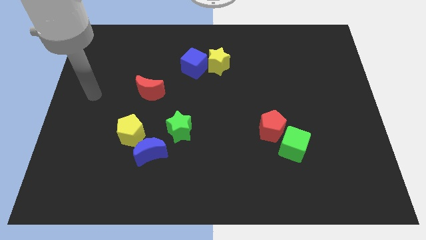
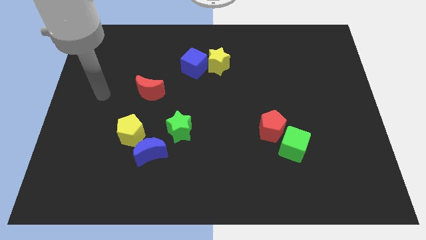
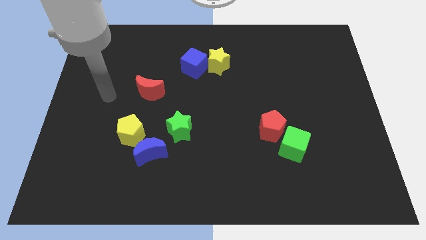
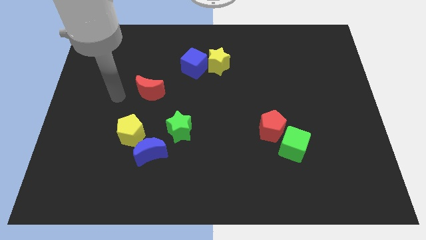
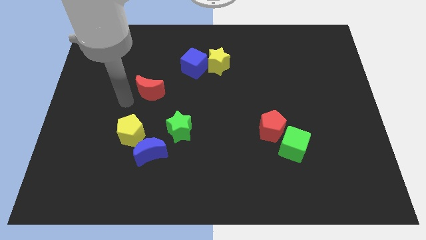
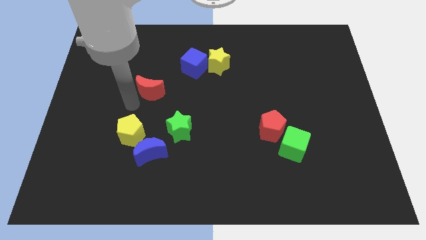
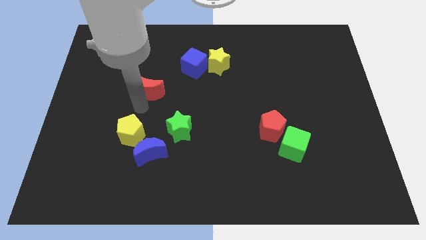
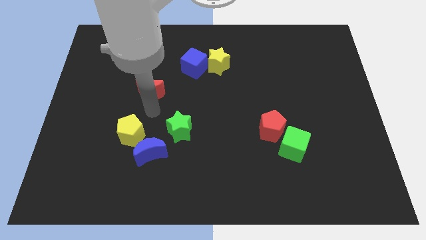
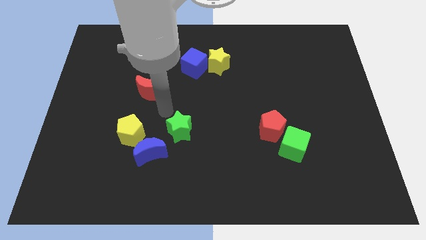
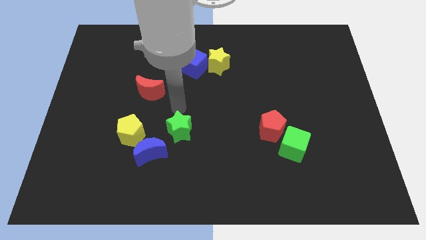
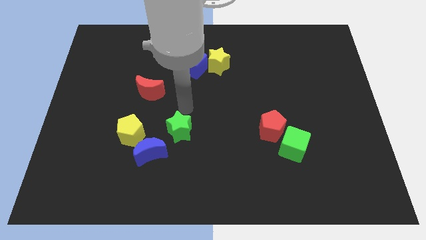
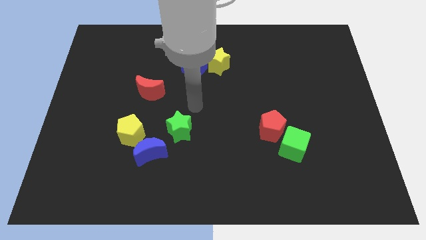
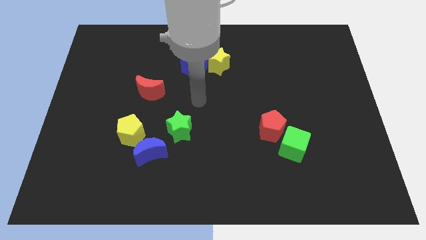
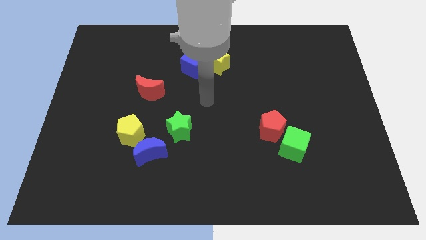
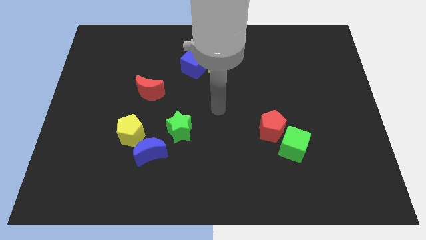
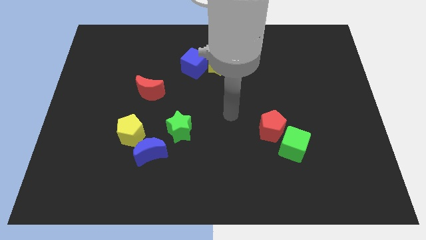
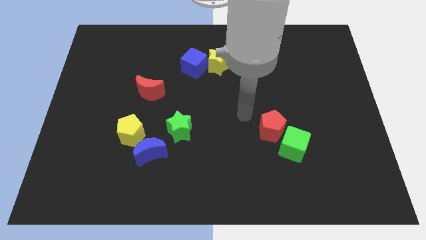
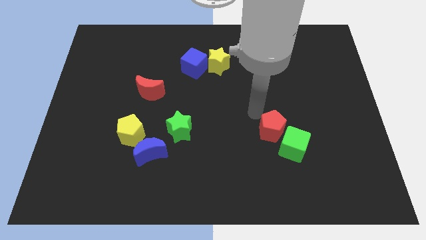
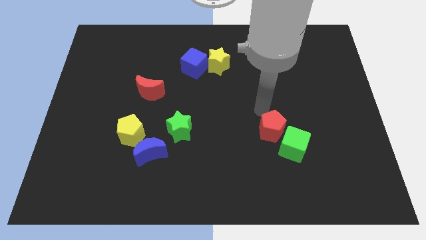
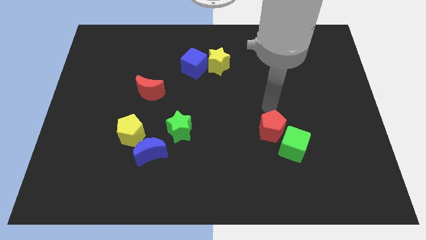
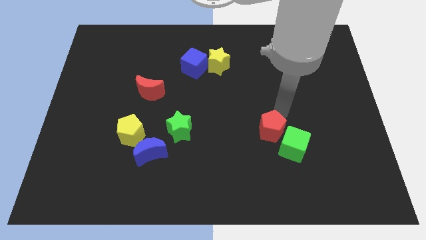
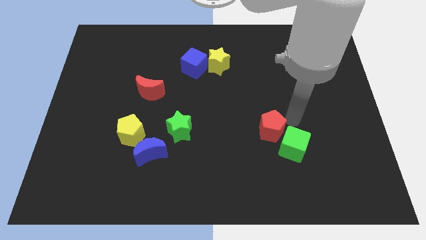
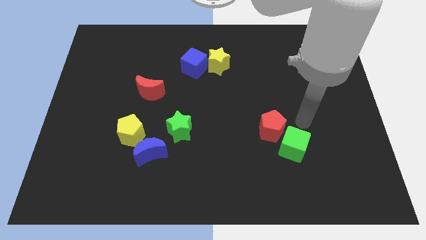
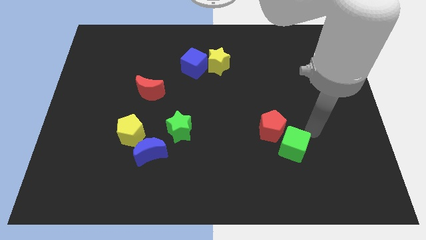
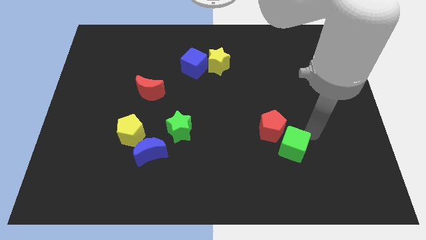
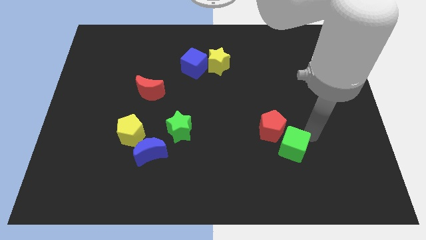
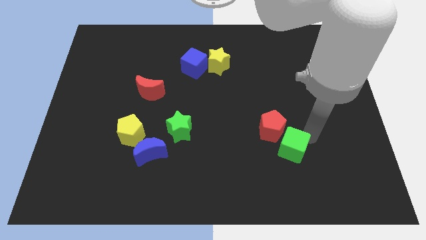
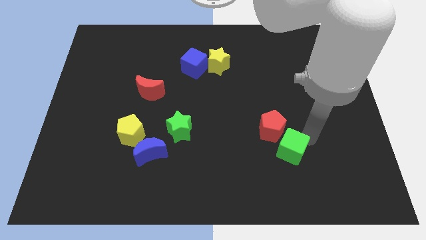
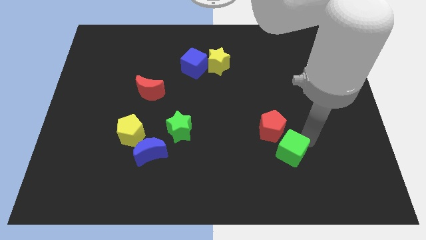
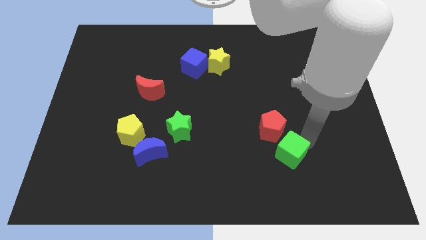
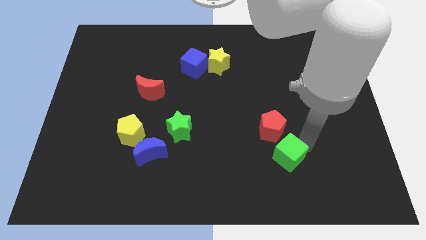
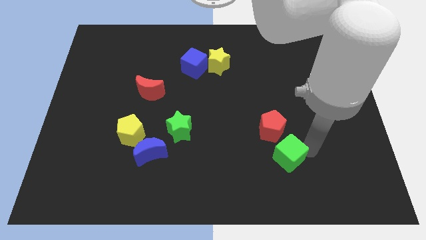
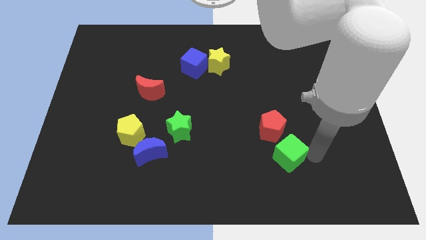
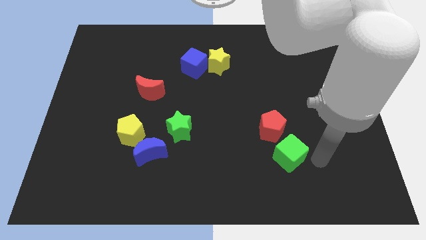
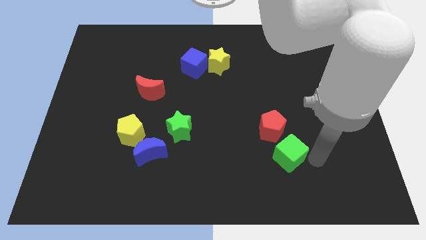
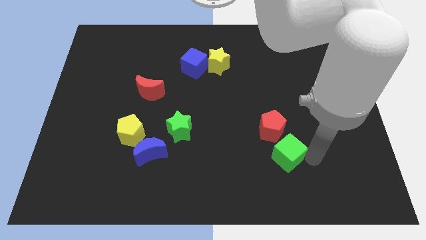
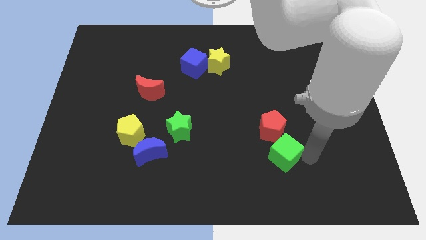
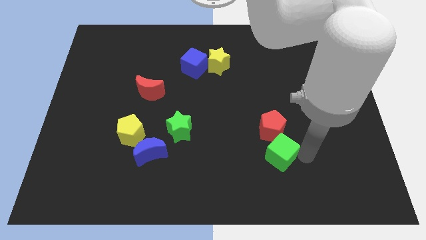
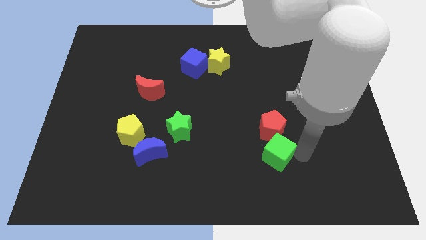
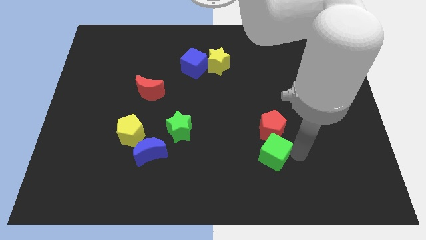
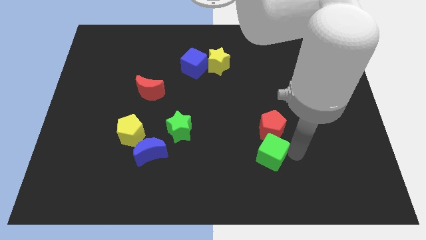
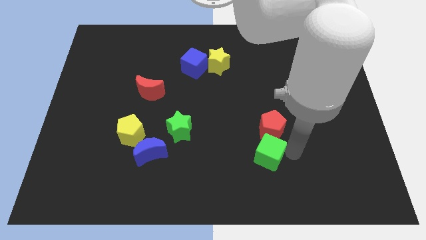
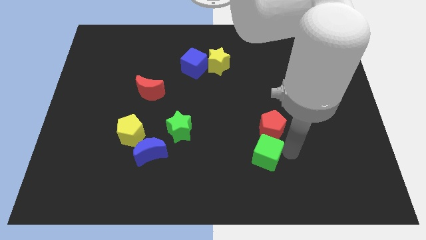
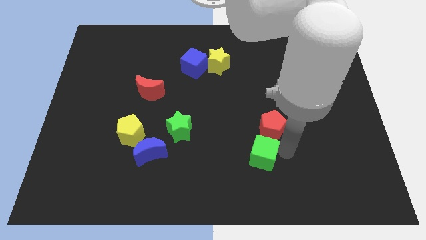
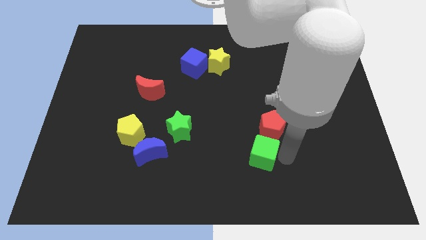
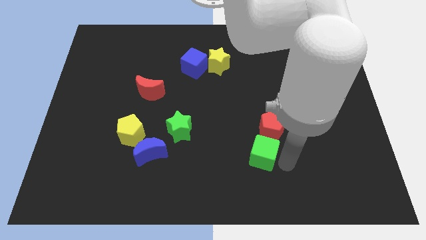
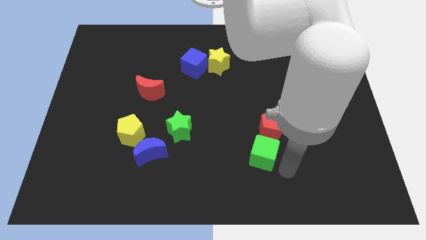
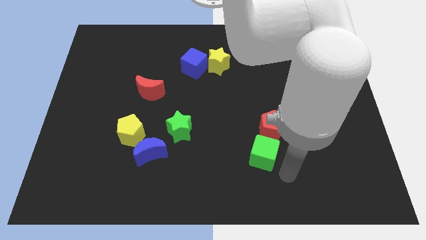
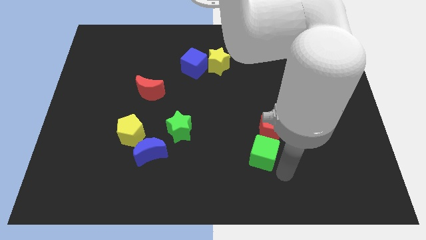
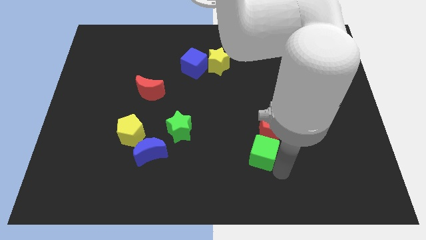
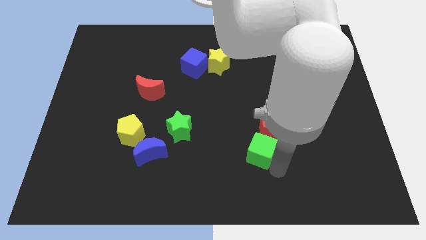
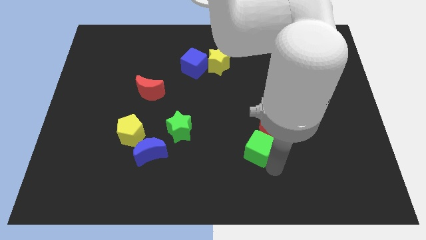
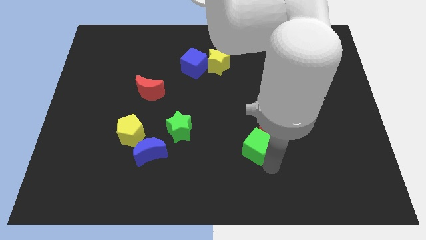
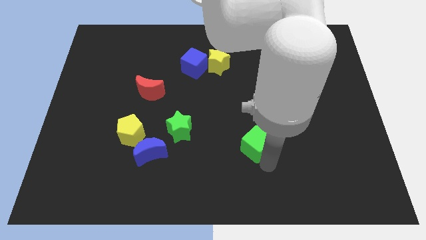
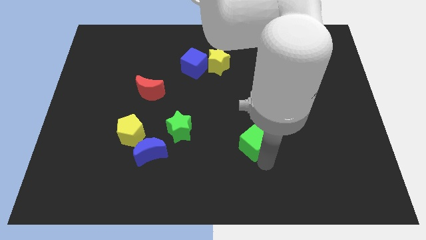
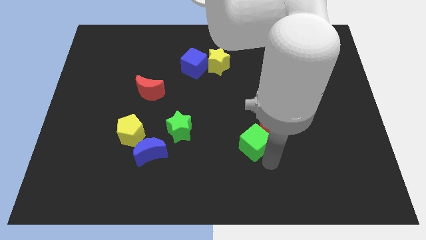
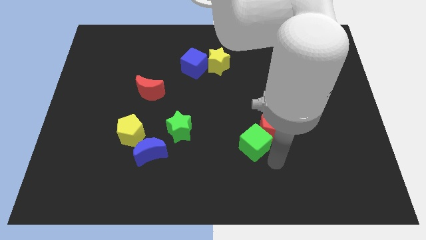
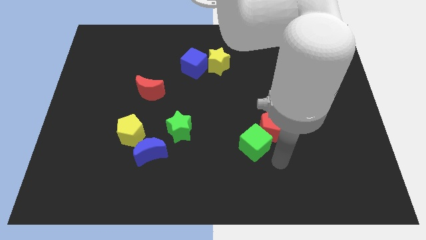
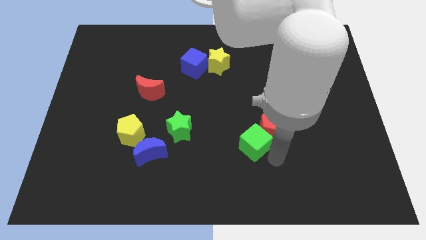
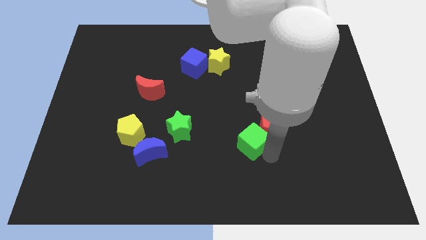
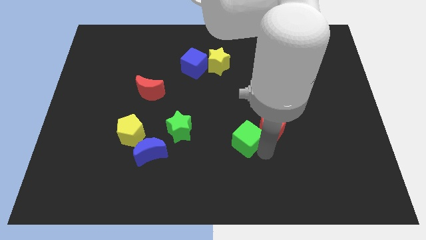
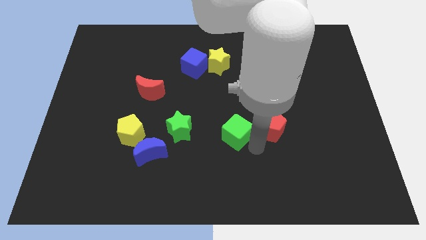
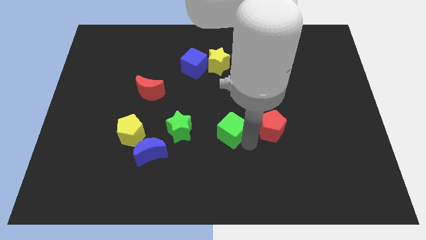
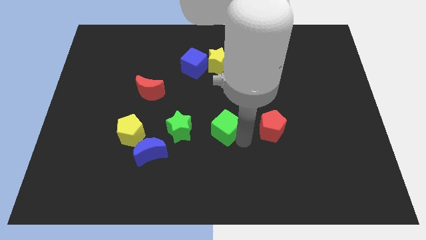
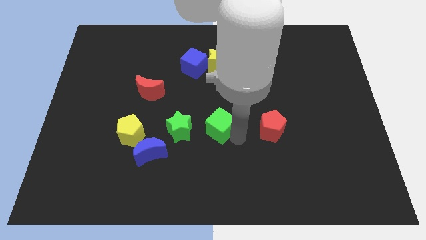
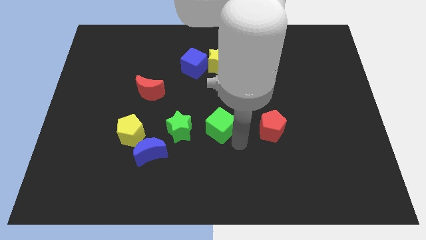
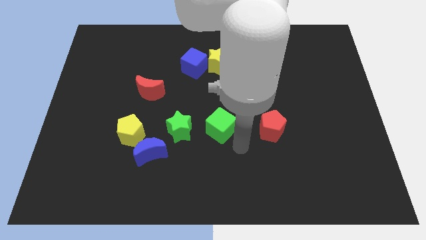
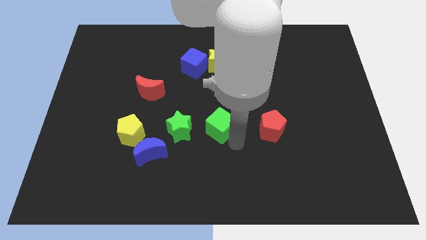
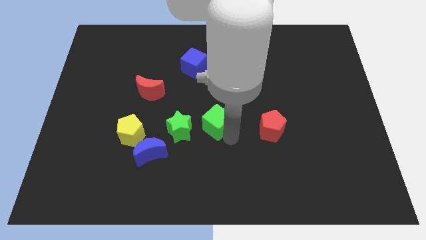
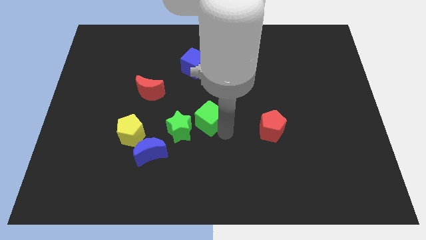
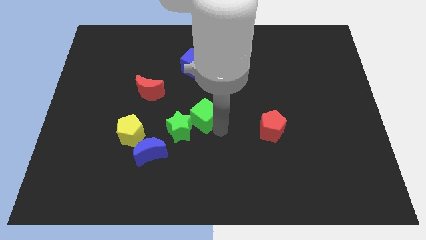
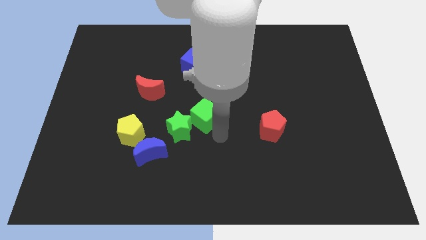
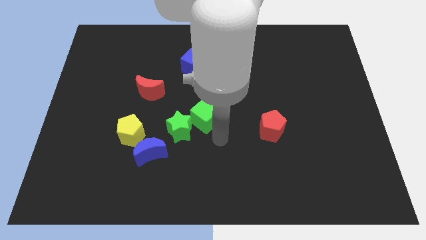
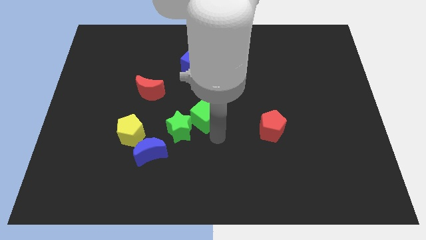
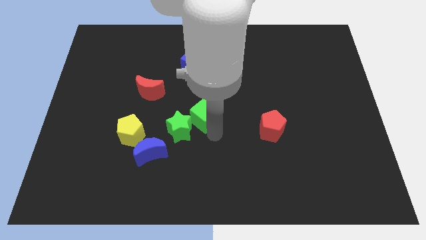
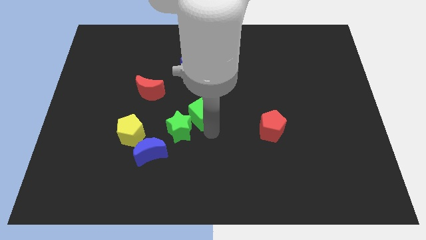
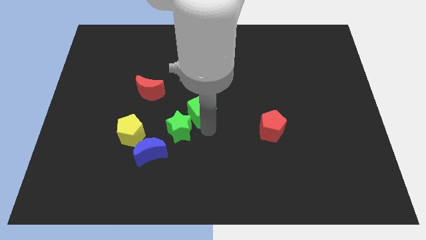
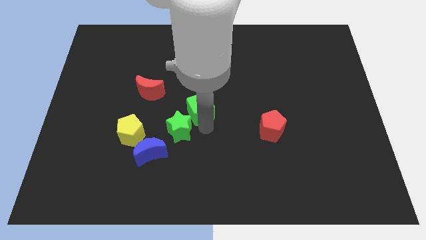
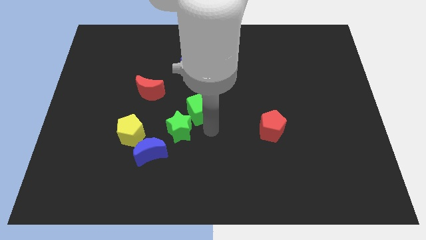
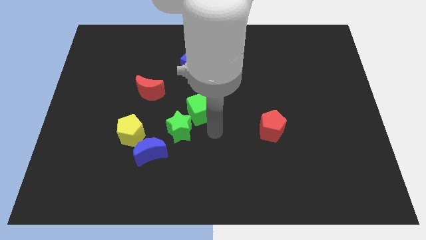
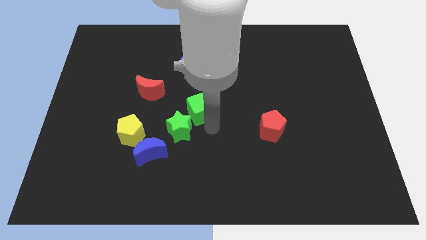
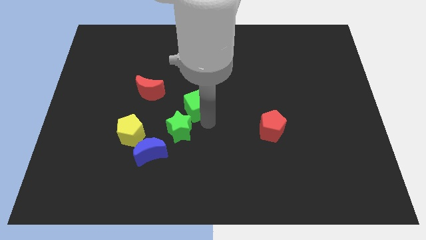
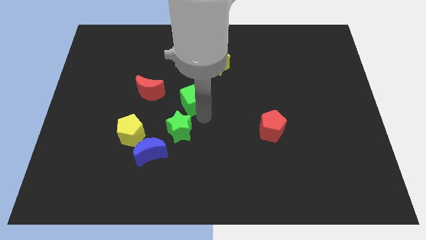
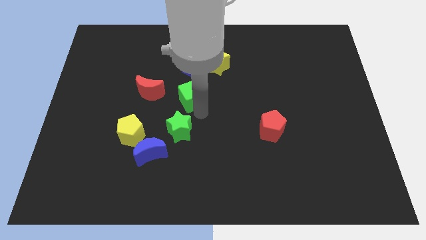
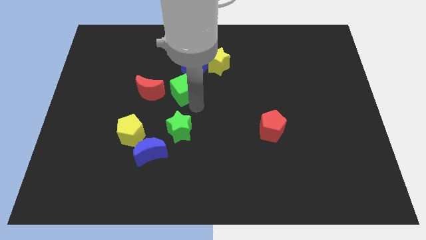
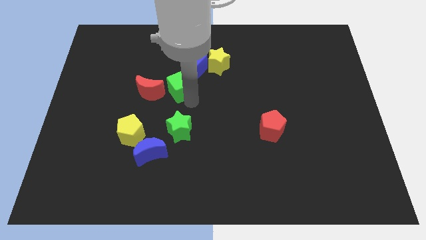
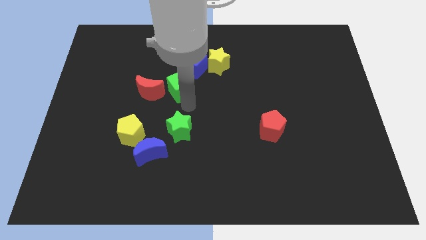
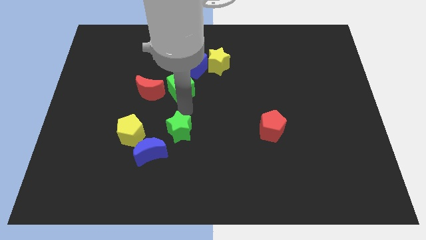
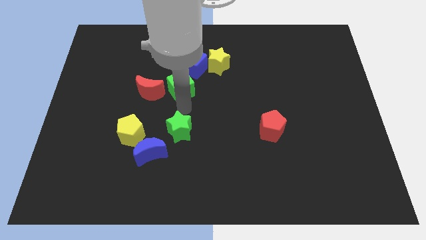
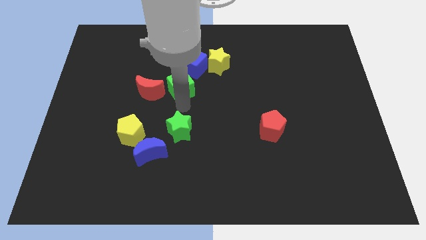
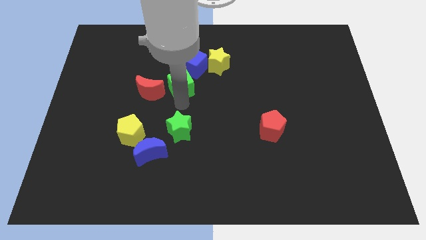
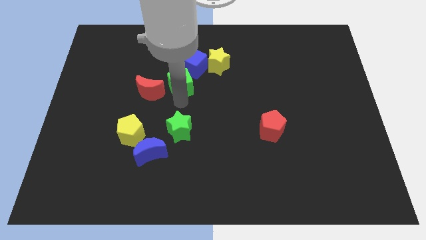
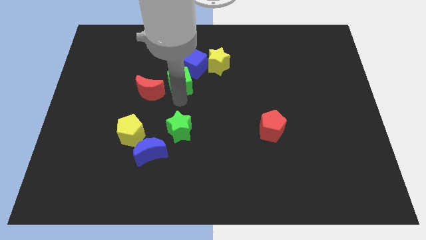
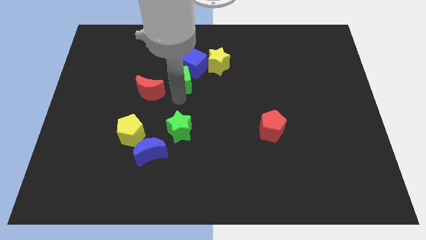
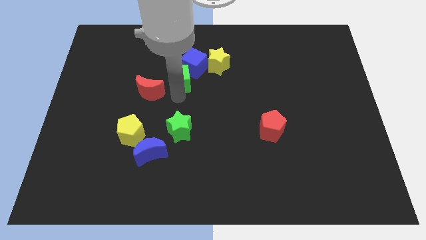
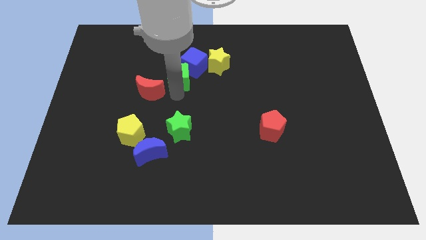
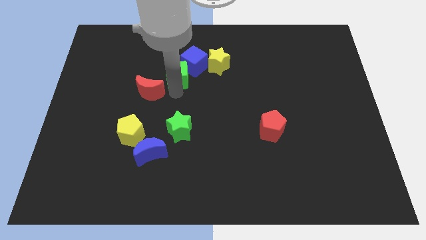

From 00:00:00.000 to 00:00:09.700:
push the green cube to the left side of the yellow star
